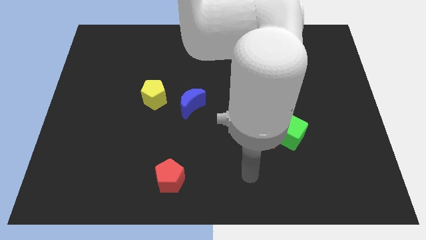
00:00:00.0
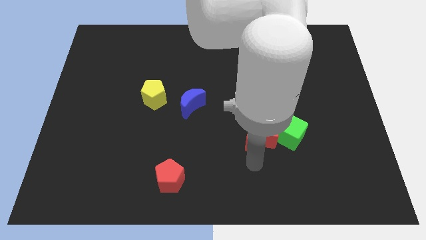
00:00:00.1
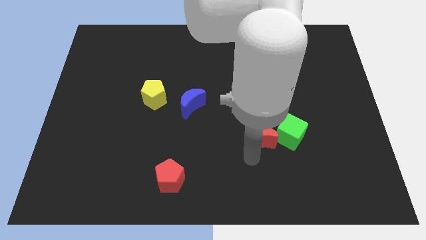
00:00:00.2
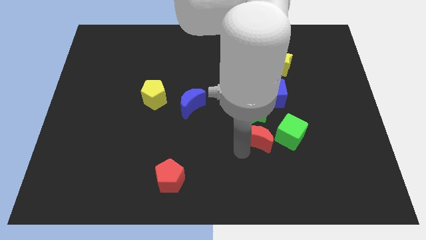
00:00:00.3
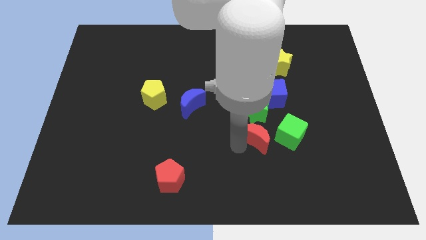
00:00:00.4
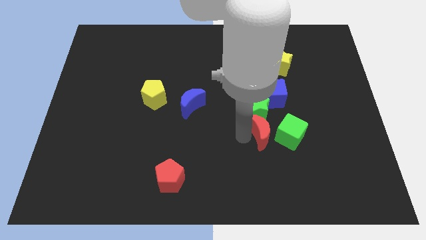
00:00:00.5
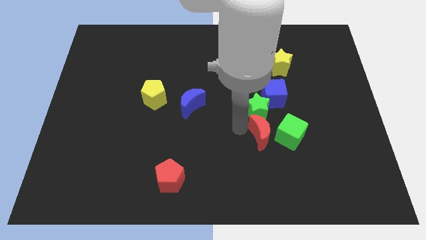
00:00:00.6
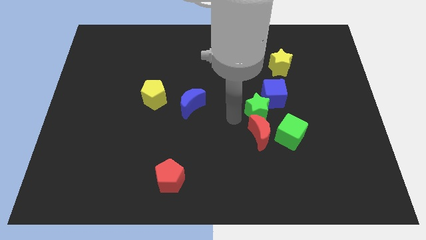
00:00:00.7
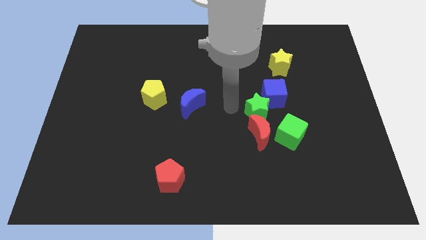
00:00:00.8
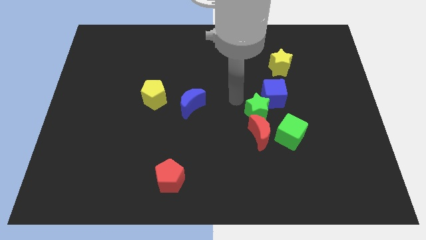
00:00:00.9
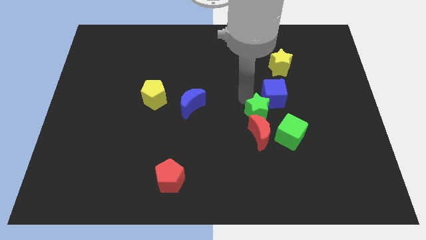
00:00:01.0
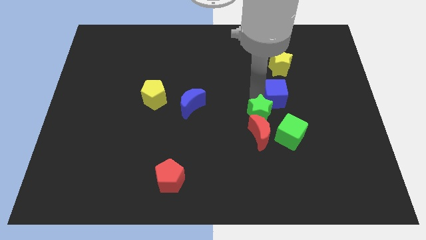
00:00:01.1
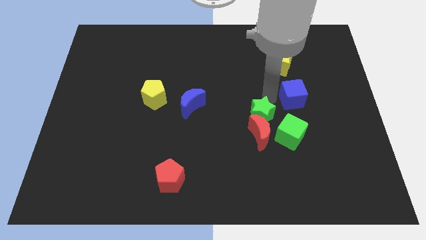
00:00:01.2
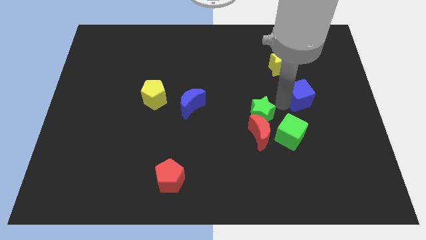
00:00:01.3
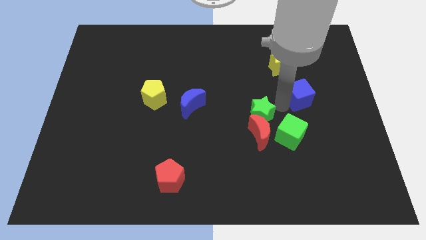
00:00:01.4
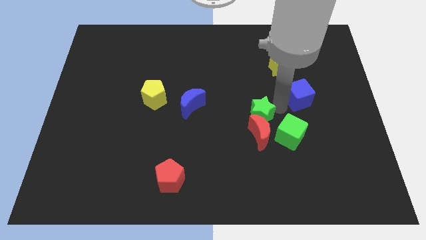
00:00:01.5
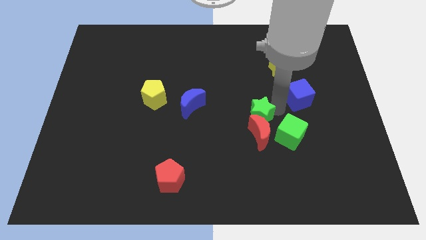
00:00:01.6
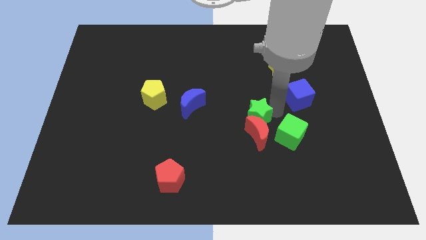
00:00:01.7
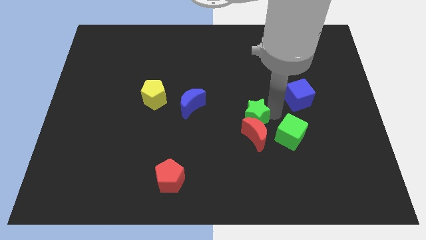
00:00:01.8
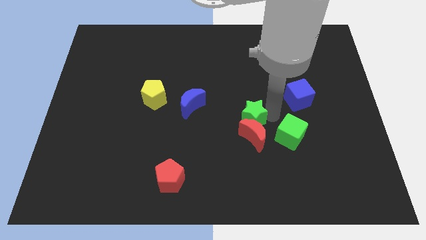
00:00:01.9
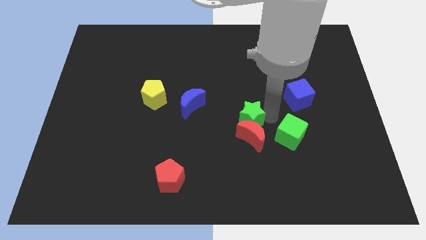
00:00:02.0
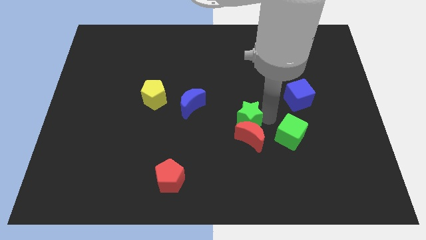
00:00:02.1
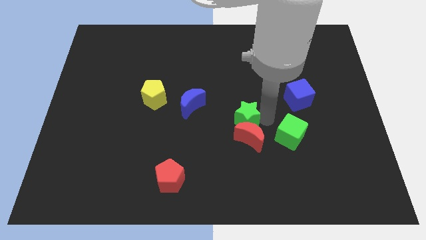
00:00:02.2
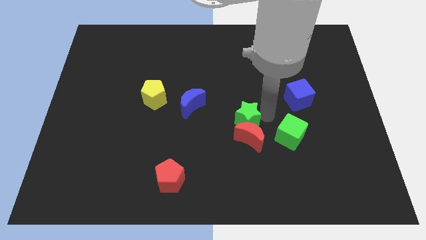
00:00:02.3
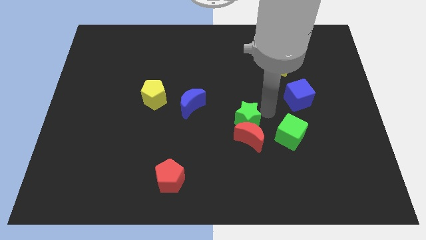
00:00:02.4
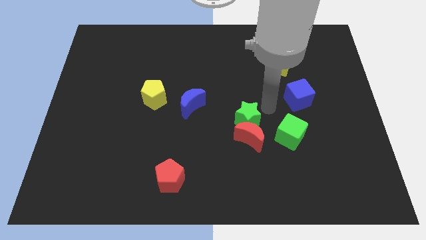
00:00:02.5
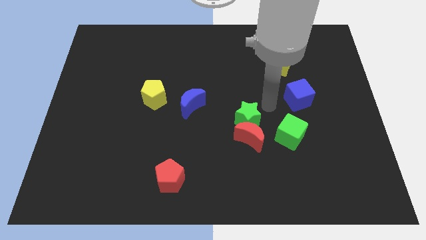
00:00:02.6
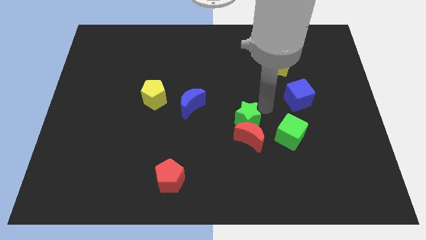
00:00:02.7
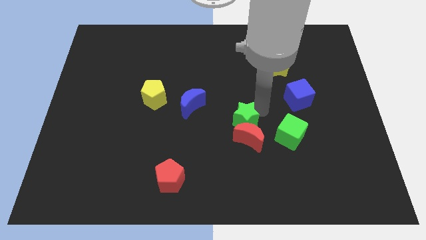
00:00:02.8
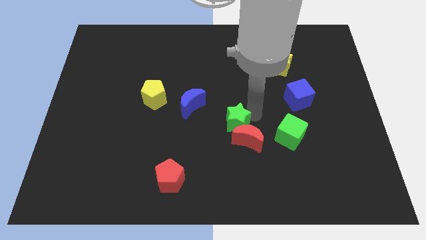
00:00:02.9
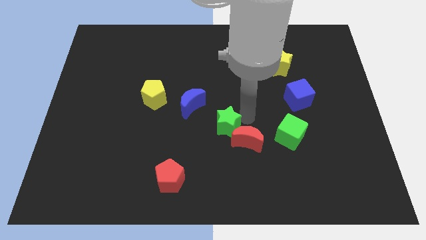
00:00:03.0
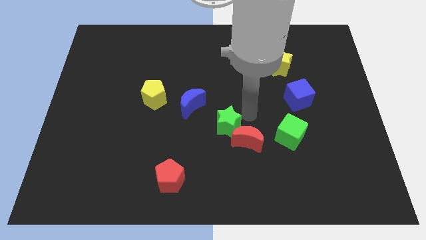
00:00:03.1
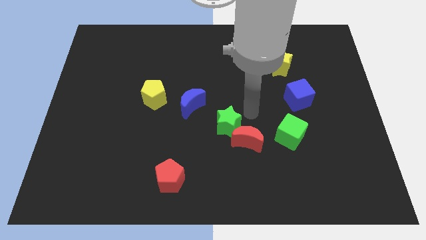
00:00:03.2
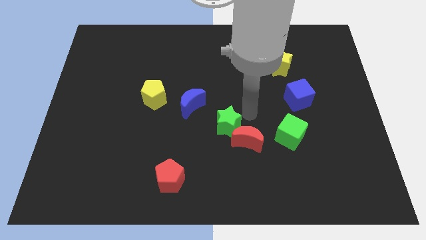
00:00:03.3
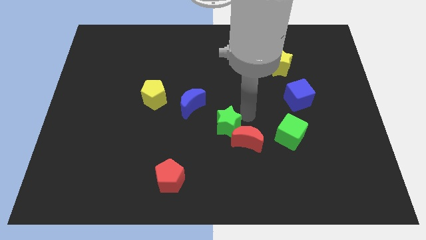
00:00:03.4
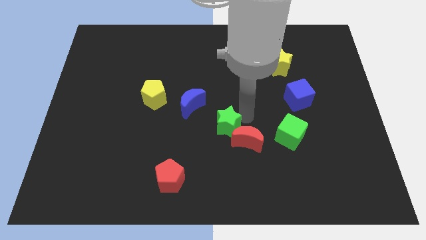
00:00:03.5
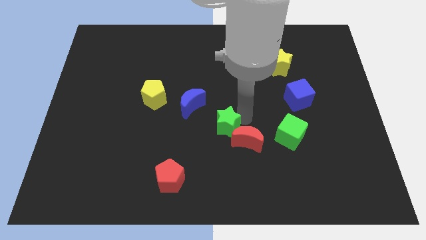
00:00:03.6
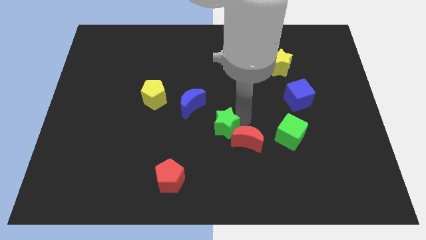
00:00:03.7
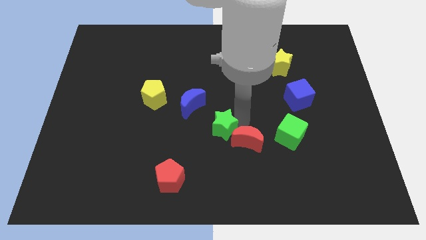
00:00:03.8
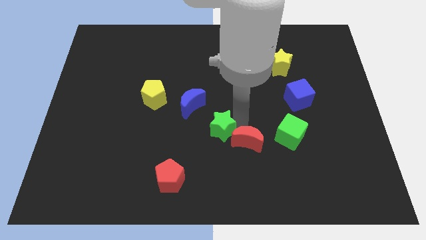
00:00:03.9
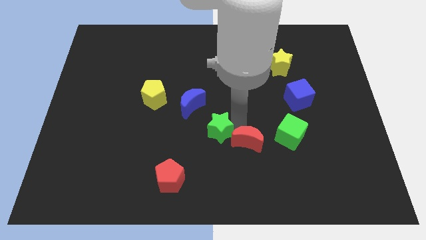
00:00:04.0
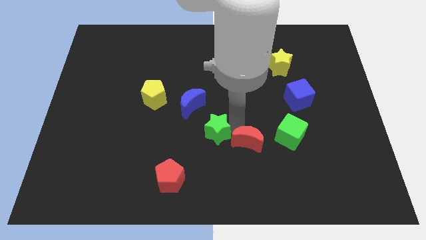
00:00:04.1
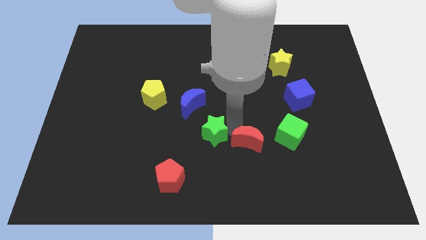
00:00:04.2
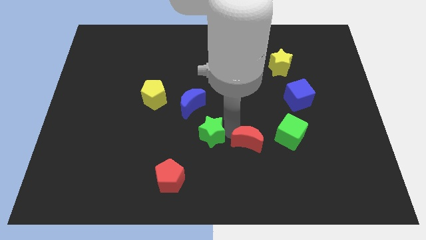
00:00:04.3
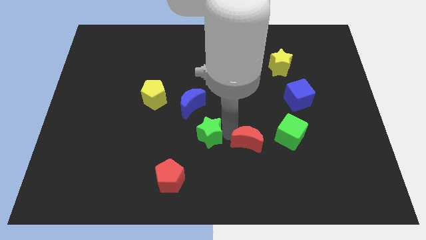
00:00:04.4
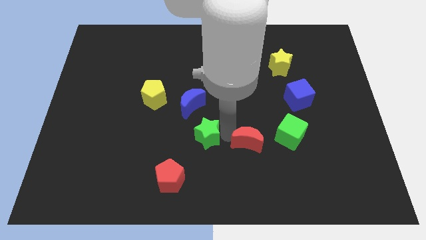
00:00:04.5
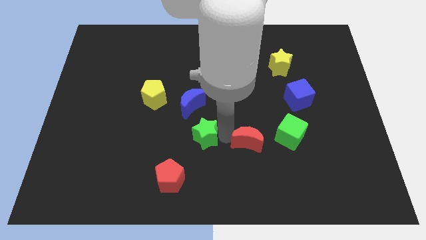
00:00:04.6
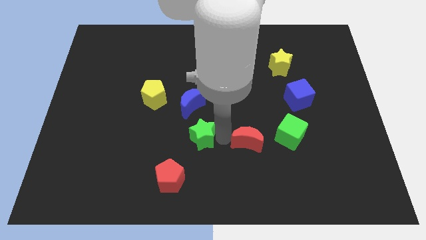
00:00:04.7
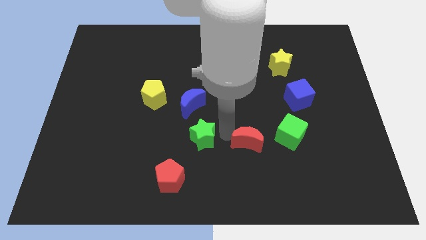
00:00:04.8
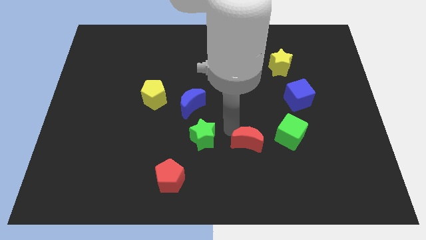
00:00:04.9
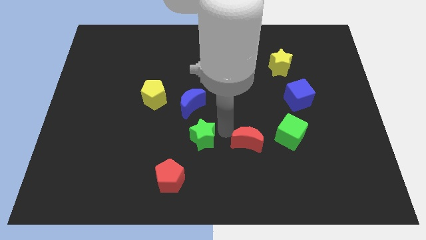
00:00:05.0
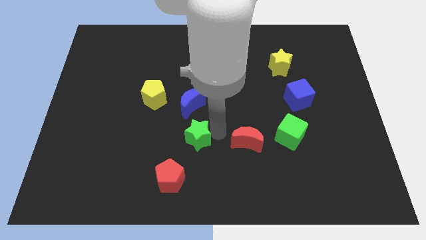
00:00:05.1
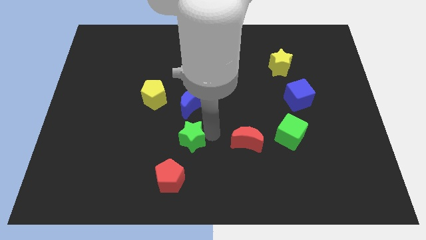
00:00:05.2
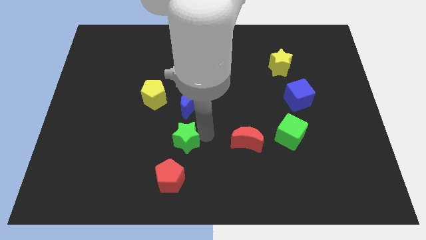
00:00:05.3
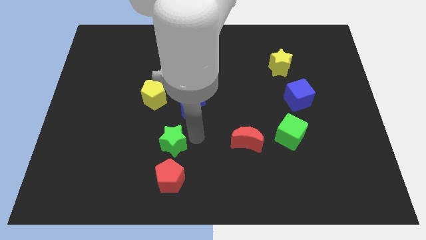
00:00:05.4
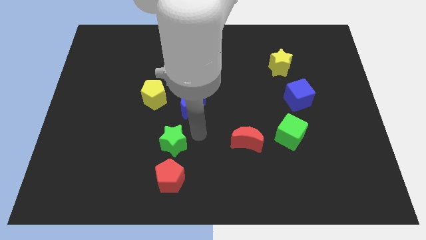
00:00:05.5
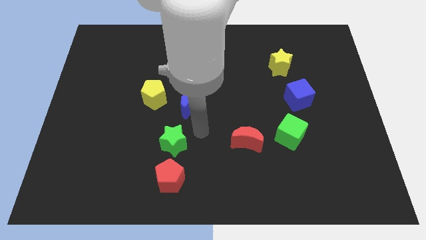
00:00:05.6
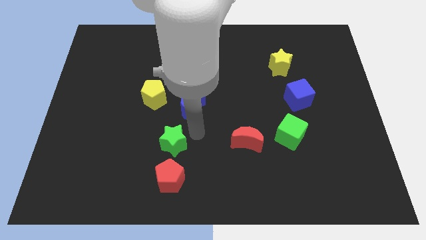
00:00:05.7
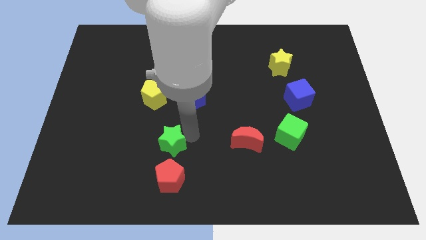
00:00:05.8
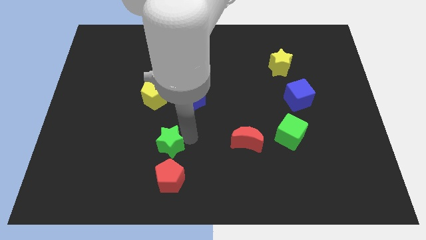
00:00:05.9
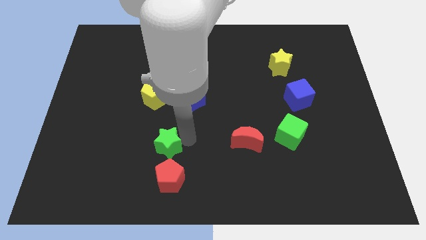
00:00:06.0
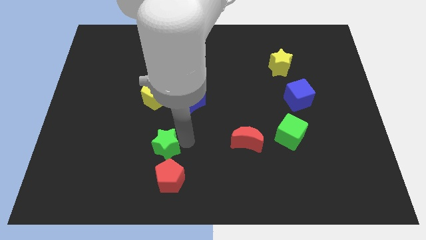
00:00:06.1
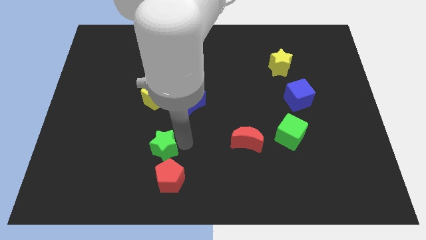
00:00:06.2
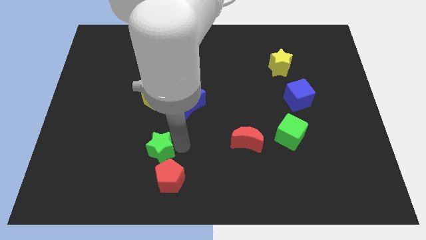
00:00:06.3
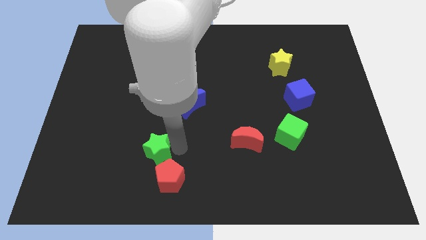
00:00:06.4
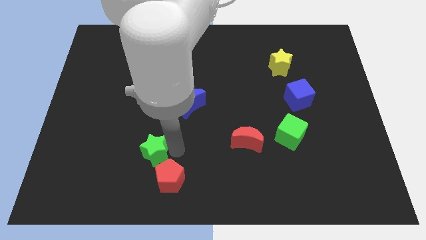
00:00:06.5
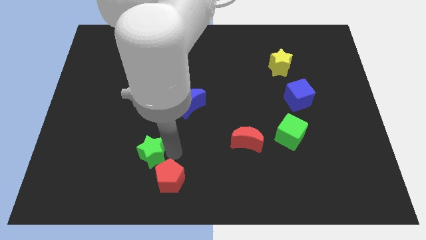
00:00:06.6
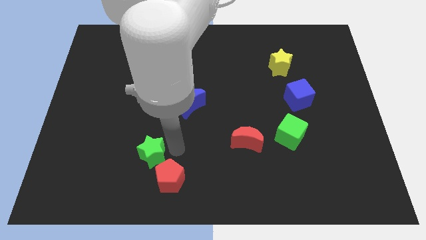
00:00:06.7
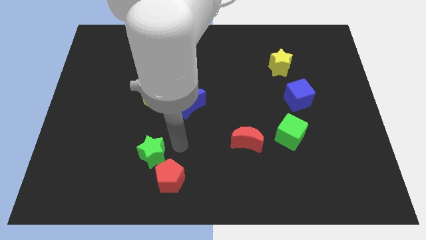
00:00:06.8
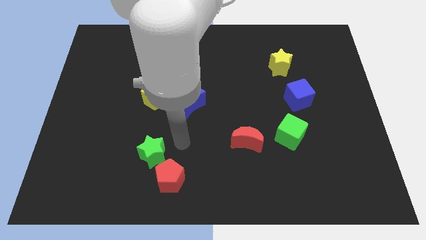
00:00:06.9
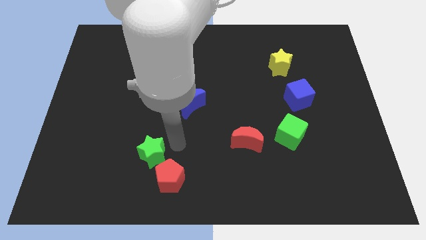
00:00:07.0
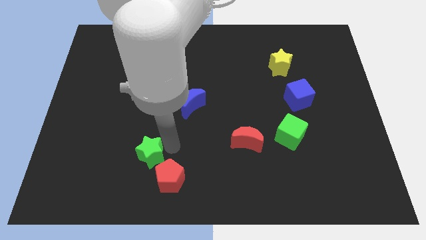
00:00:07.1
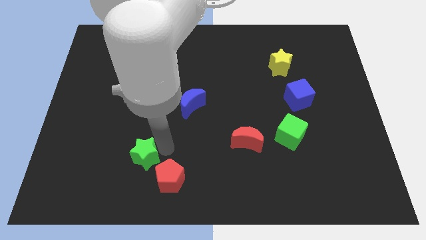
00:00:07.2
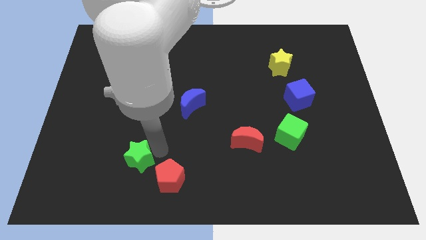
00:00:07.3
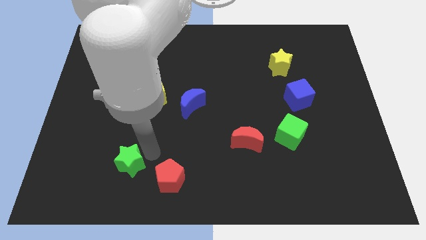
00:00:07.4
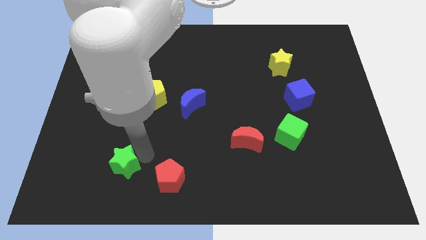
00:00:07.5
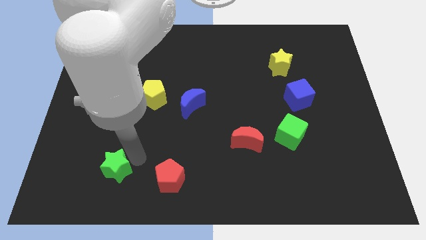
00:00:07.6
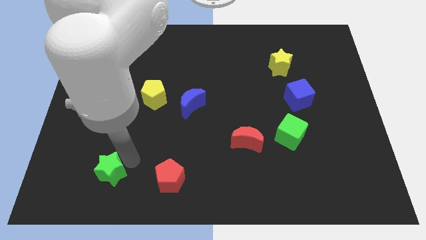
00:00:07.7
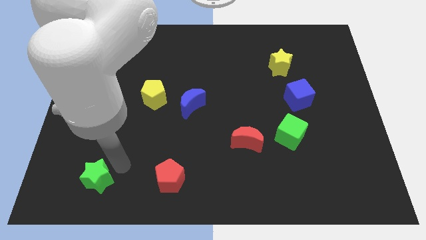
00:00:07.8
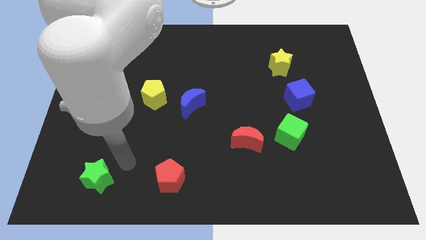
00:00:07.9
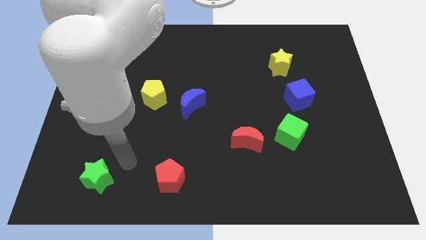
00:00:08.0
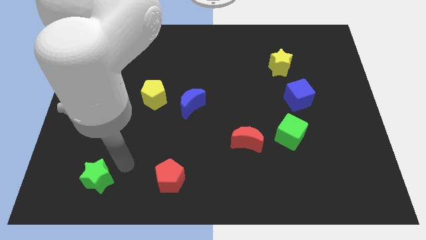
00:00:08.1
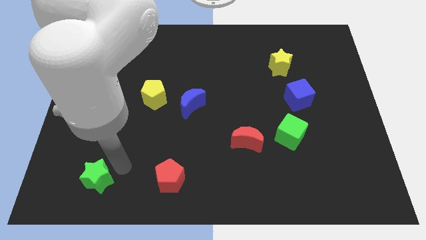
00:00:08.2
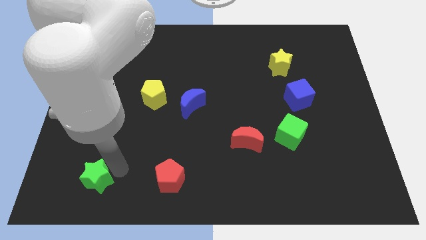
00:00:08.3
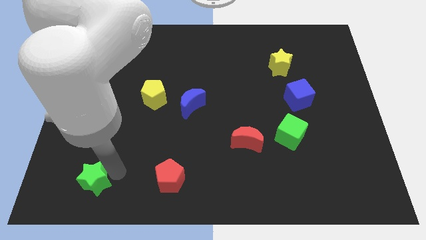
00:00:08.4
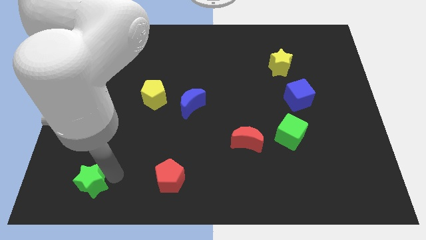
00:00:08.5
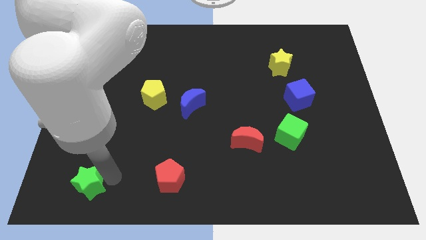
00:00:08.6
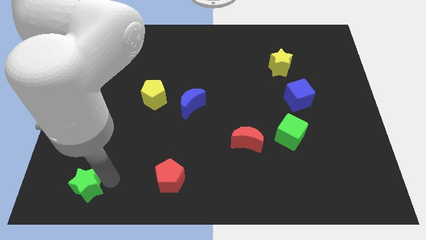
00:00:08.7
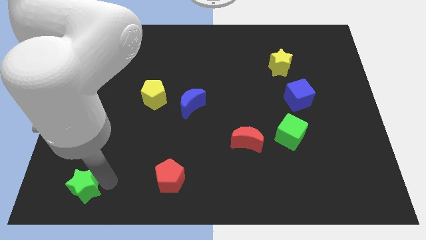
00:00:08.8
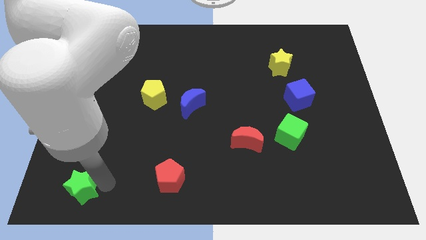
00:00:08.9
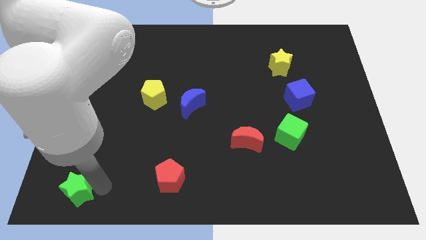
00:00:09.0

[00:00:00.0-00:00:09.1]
slide the green star to the lower left corner
